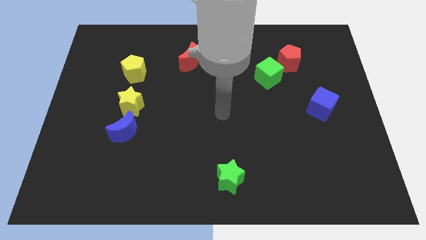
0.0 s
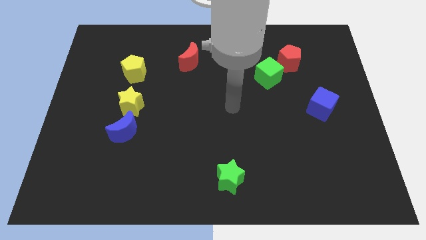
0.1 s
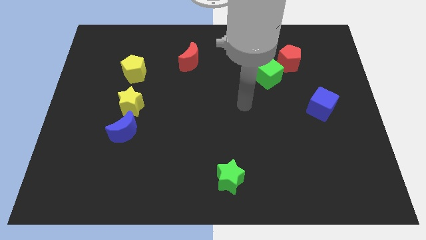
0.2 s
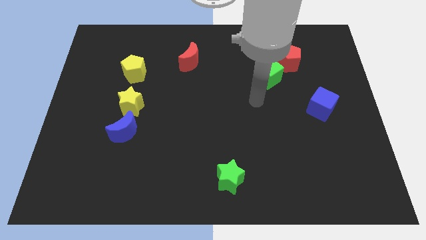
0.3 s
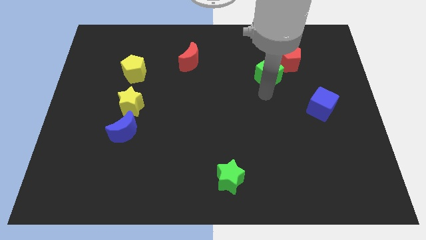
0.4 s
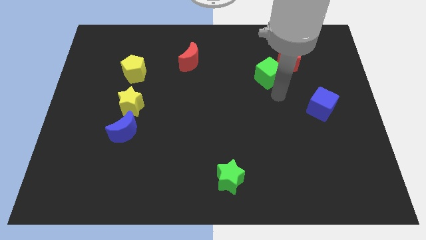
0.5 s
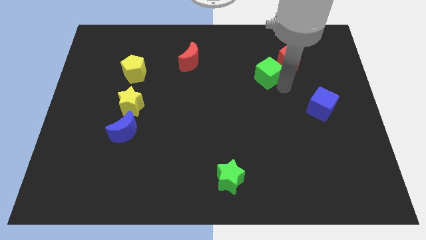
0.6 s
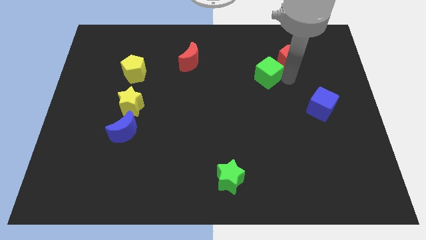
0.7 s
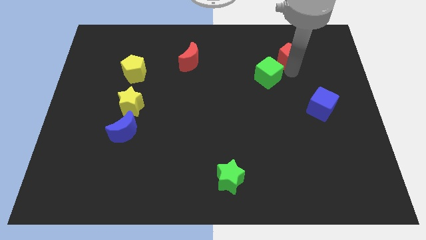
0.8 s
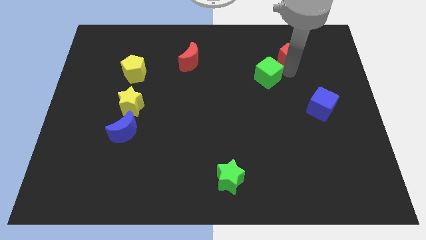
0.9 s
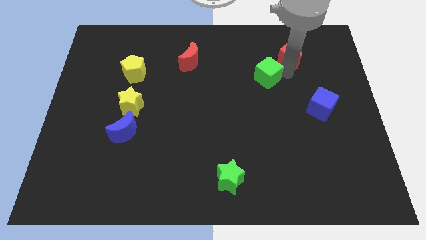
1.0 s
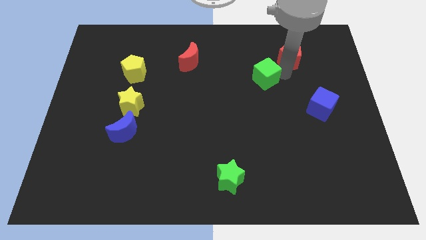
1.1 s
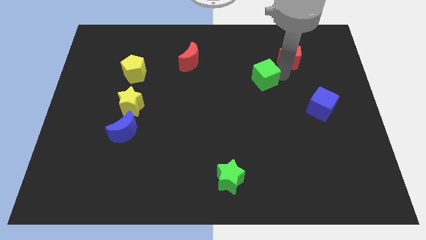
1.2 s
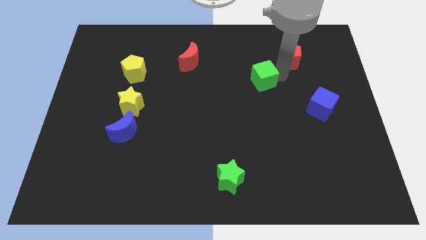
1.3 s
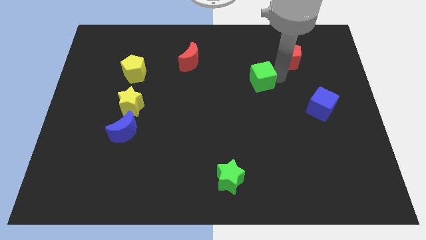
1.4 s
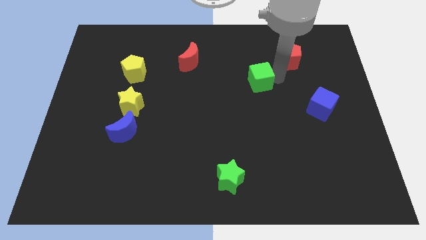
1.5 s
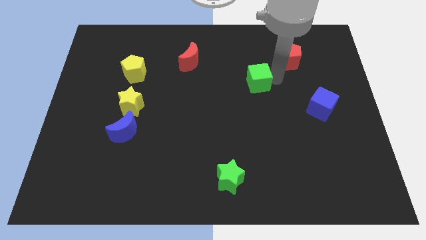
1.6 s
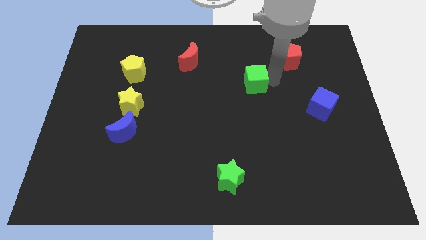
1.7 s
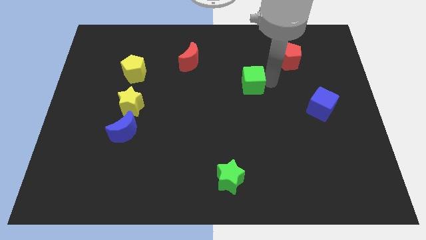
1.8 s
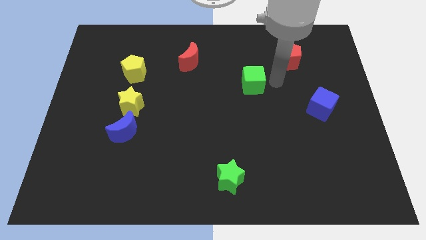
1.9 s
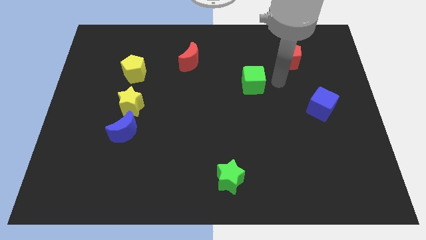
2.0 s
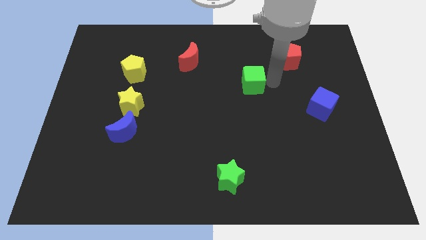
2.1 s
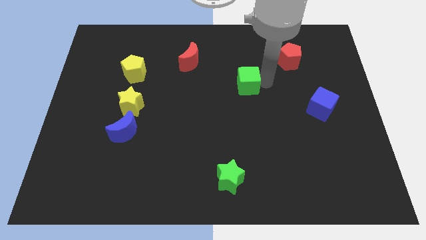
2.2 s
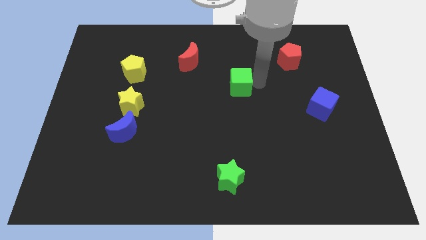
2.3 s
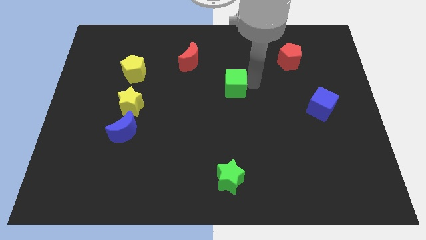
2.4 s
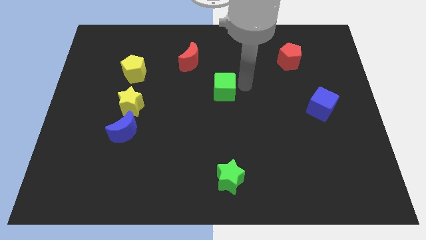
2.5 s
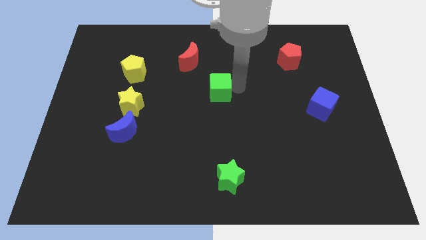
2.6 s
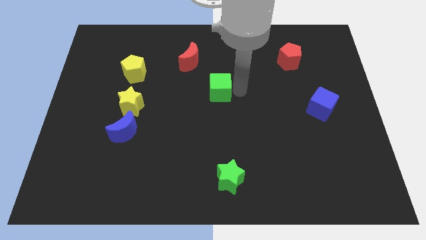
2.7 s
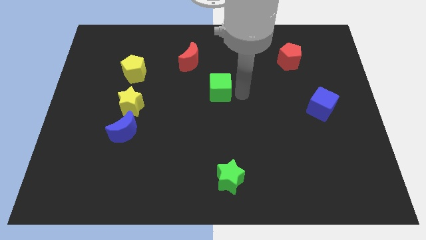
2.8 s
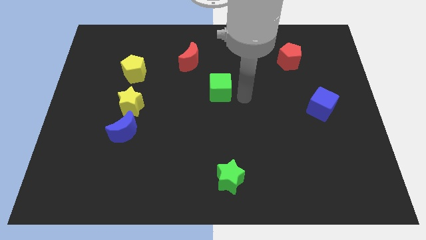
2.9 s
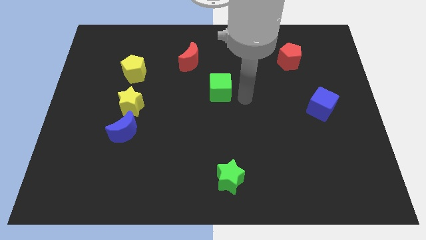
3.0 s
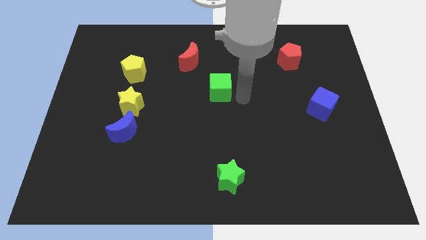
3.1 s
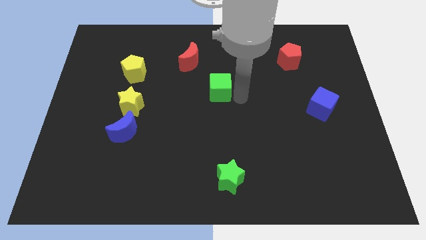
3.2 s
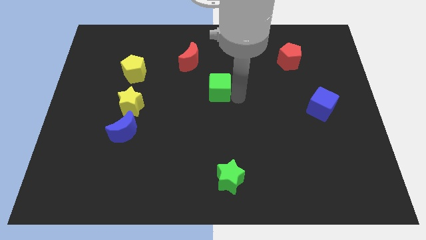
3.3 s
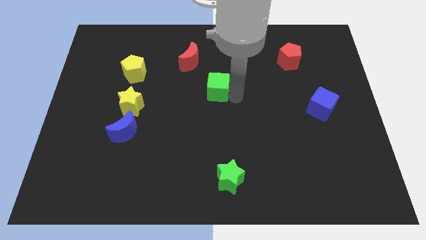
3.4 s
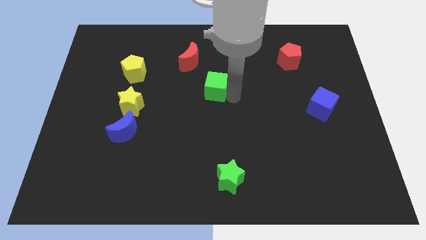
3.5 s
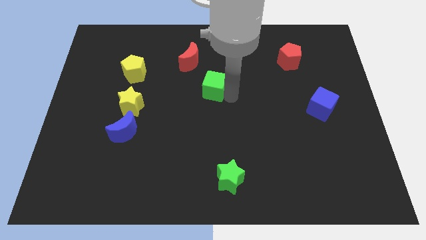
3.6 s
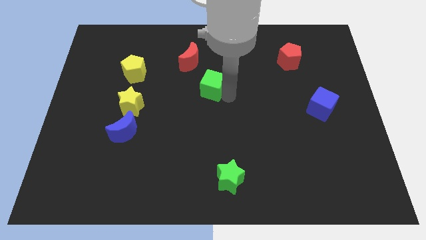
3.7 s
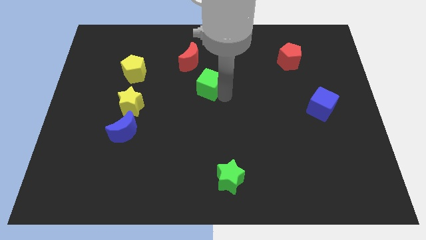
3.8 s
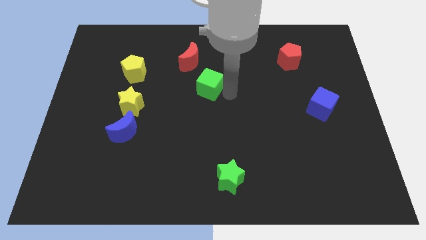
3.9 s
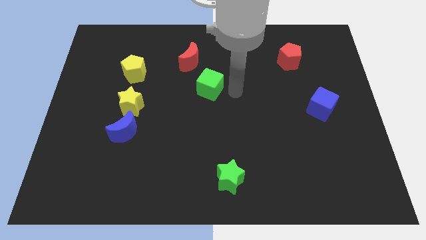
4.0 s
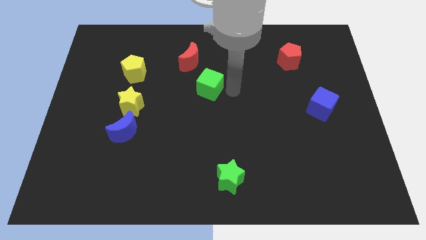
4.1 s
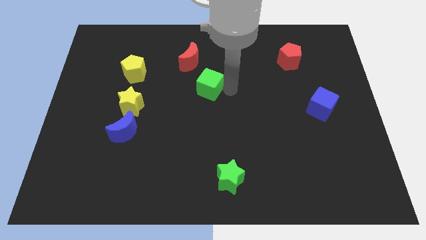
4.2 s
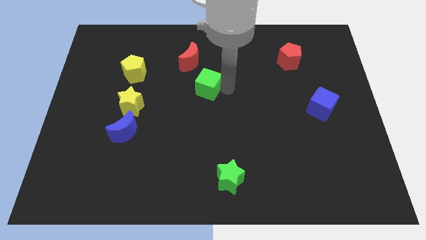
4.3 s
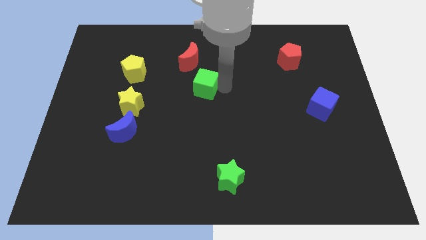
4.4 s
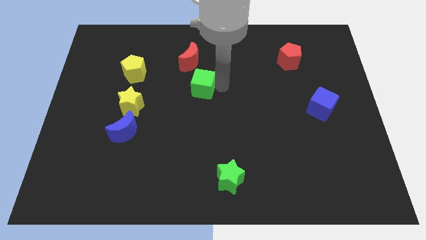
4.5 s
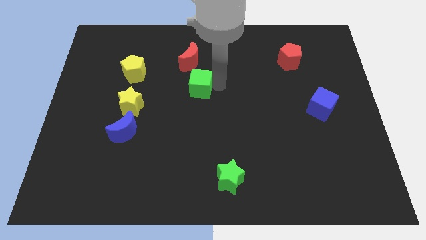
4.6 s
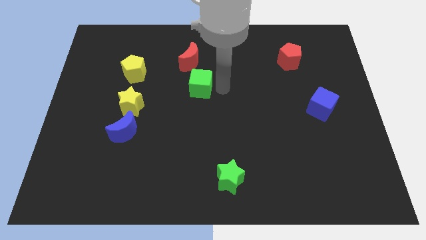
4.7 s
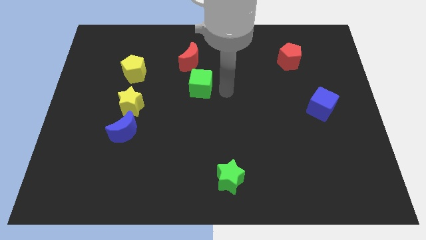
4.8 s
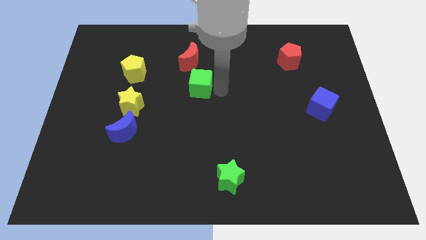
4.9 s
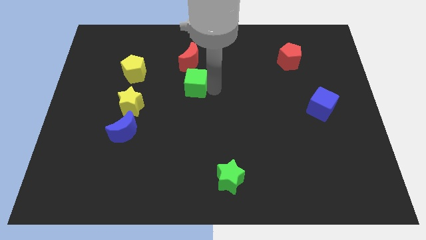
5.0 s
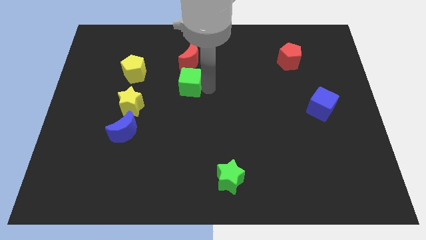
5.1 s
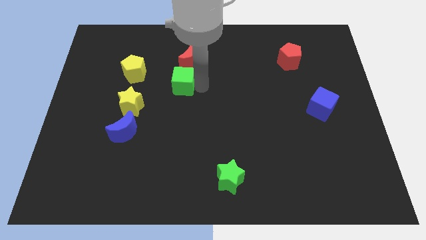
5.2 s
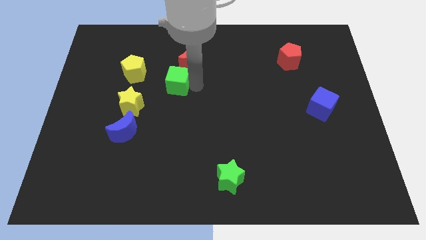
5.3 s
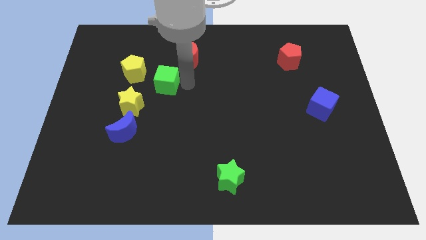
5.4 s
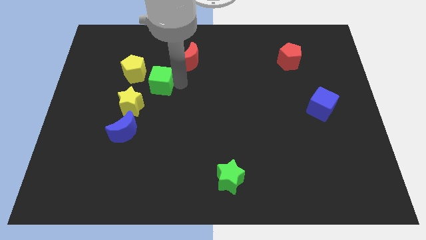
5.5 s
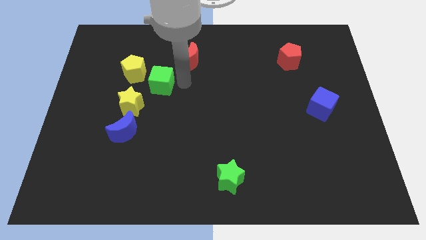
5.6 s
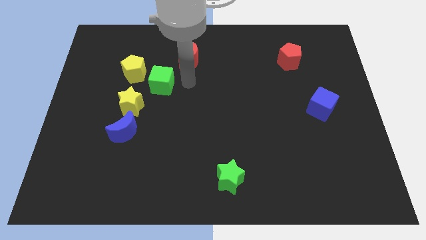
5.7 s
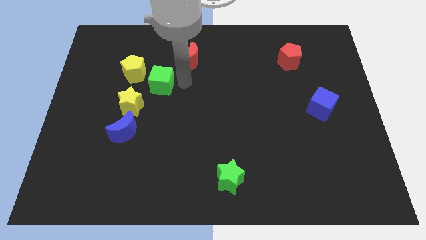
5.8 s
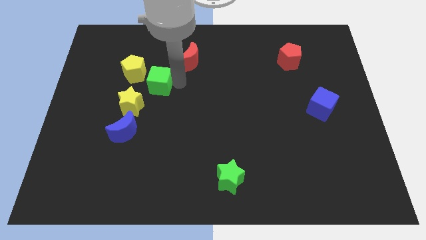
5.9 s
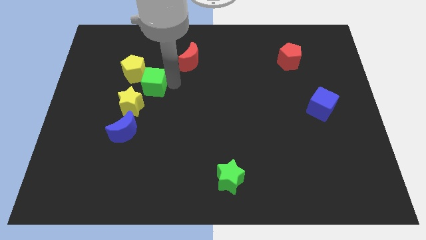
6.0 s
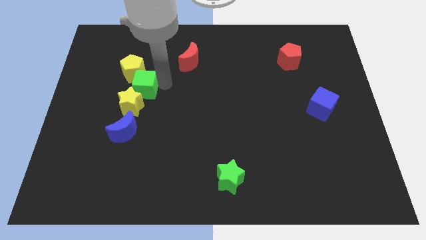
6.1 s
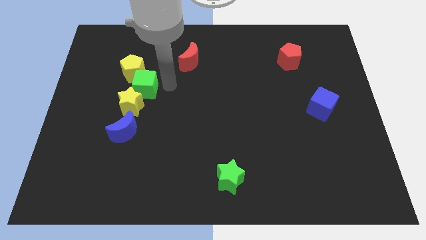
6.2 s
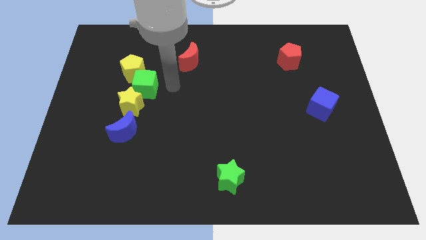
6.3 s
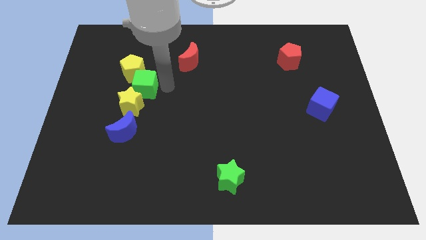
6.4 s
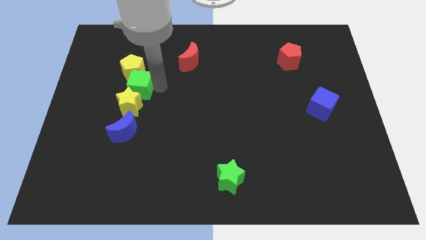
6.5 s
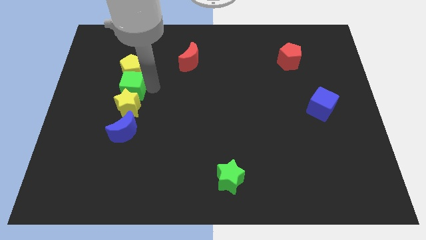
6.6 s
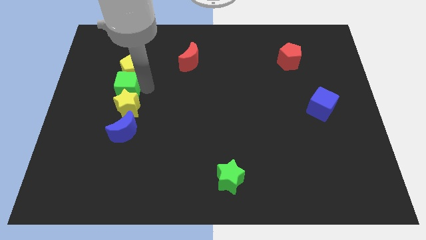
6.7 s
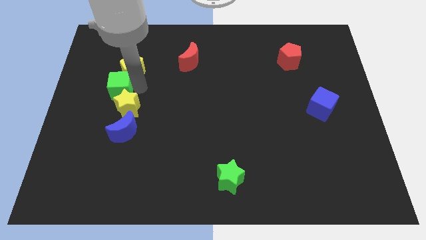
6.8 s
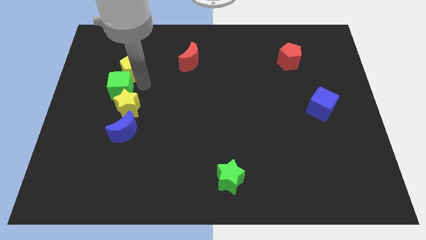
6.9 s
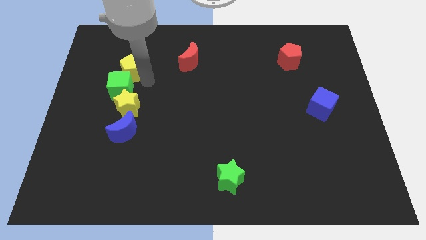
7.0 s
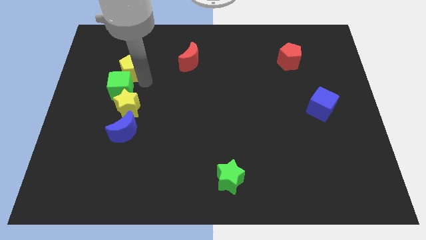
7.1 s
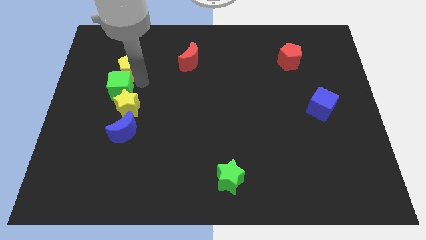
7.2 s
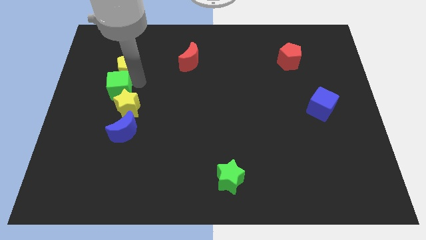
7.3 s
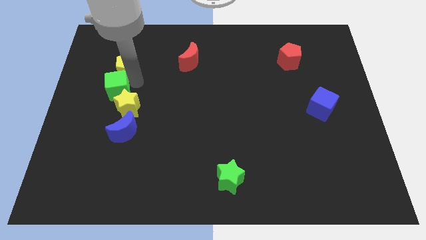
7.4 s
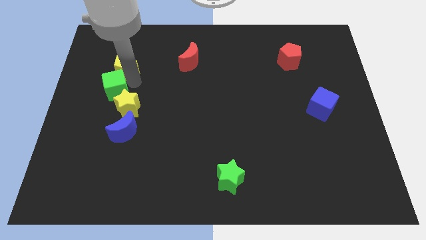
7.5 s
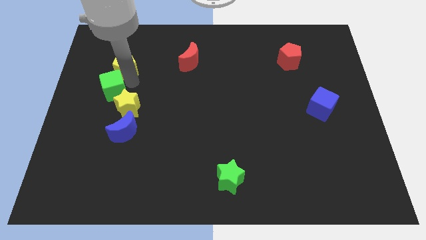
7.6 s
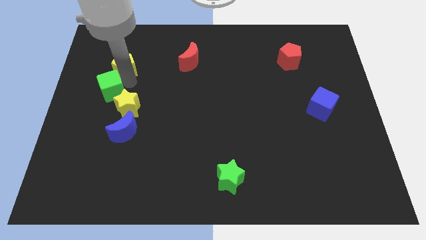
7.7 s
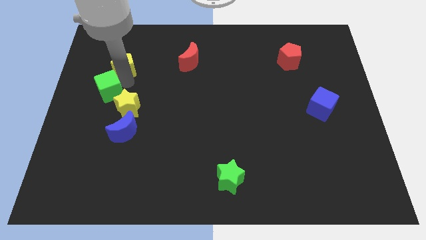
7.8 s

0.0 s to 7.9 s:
put the green cube to the left side
